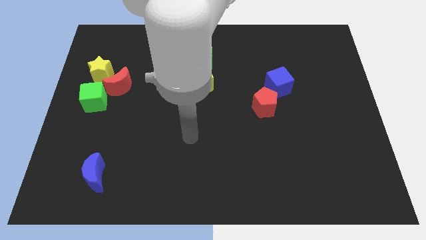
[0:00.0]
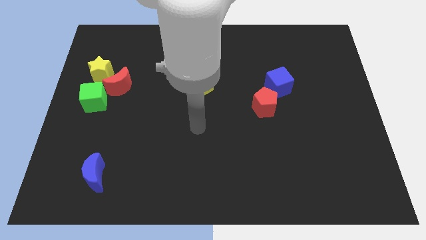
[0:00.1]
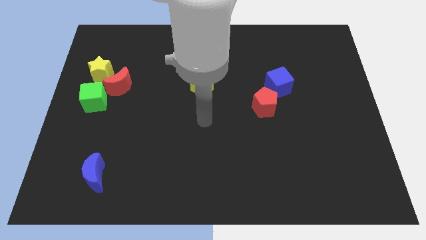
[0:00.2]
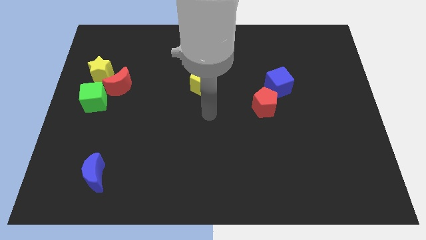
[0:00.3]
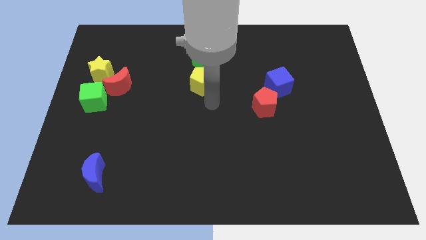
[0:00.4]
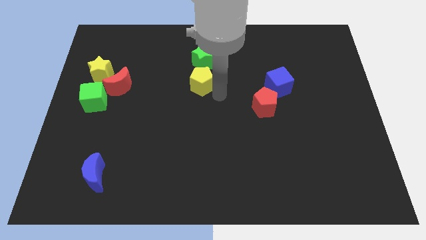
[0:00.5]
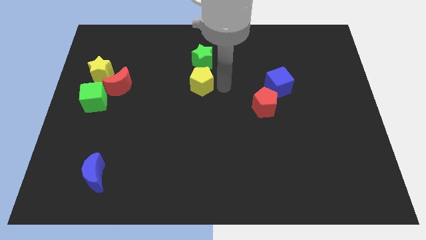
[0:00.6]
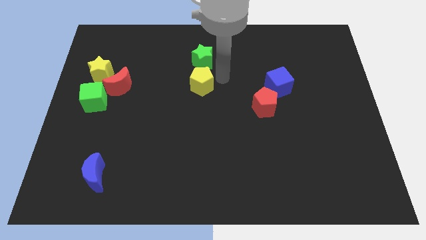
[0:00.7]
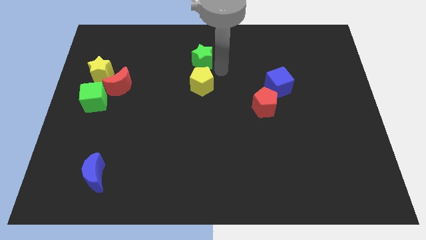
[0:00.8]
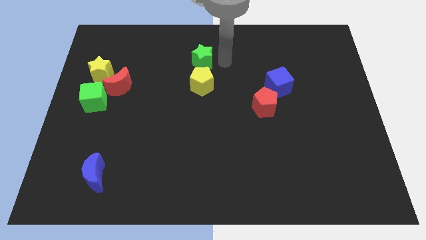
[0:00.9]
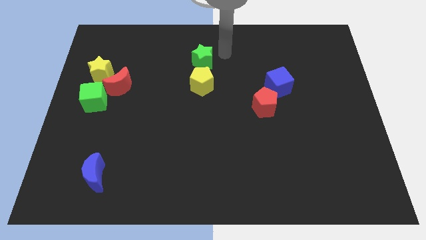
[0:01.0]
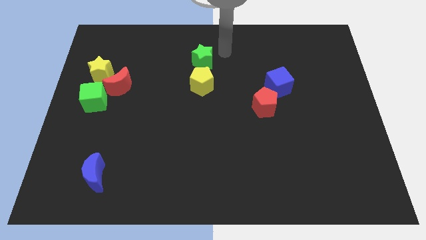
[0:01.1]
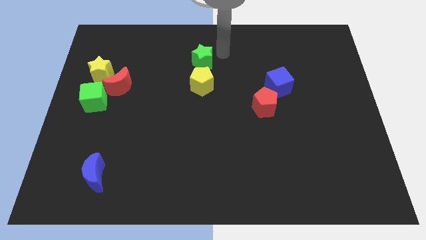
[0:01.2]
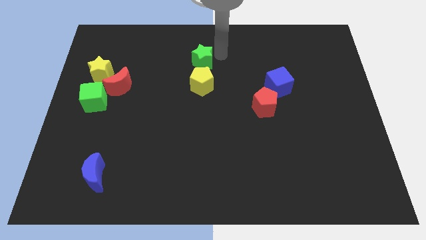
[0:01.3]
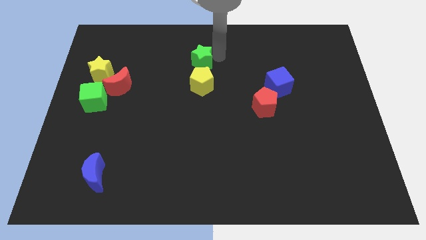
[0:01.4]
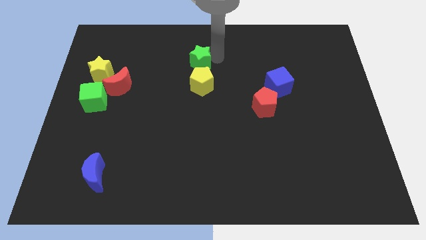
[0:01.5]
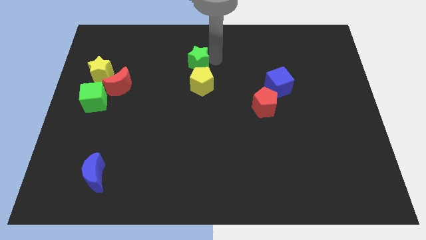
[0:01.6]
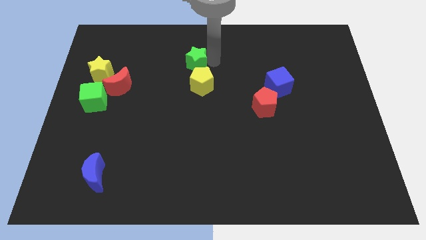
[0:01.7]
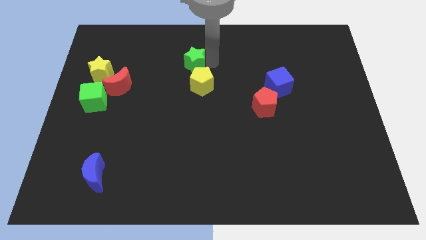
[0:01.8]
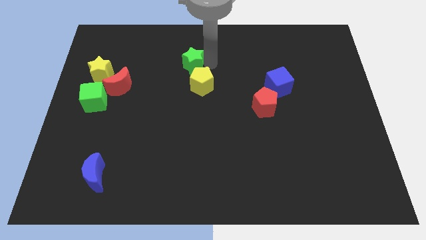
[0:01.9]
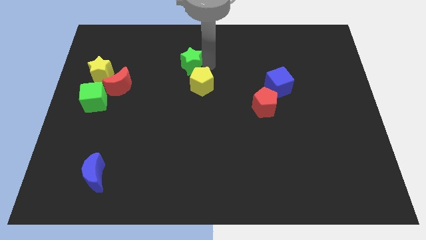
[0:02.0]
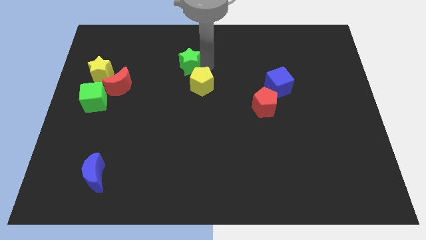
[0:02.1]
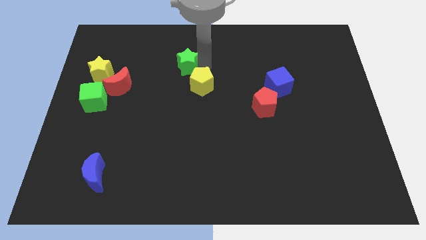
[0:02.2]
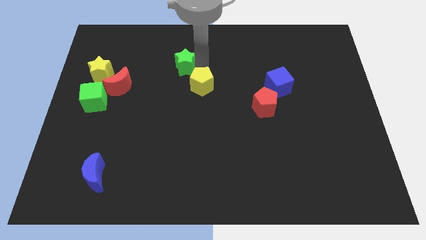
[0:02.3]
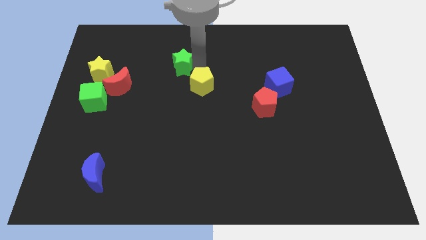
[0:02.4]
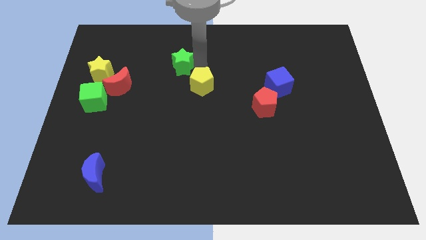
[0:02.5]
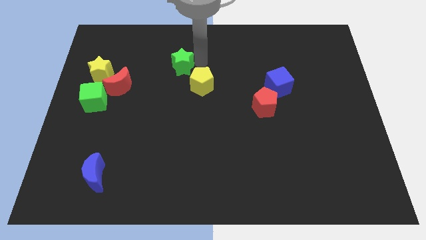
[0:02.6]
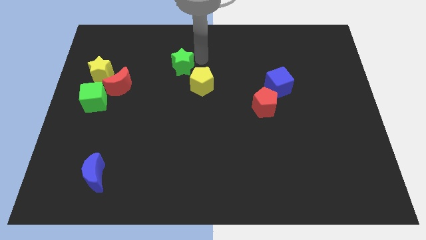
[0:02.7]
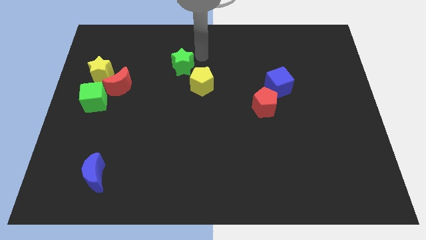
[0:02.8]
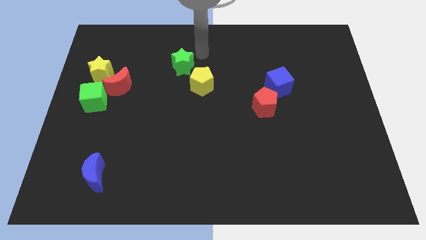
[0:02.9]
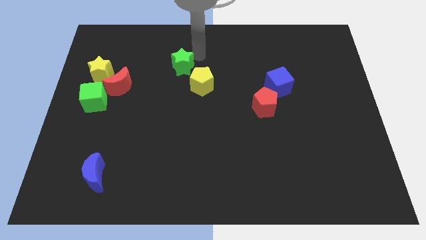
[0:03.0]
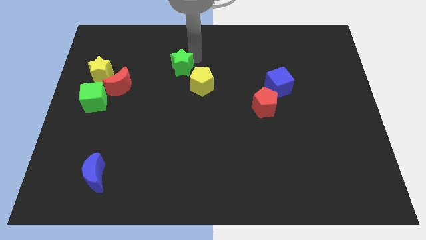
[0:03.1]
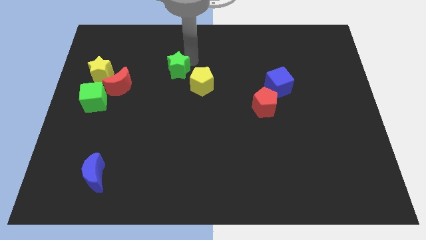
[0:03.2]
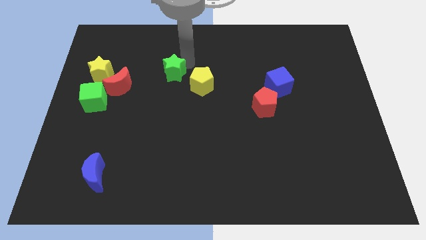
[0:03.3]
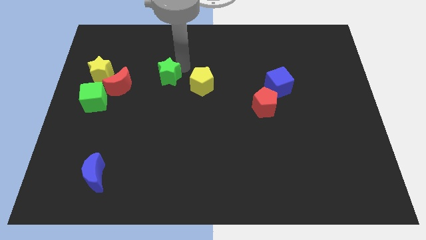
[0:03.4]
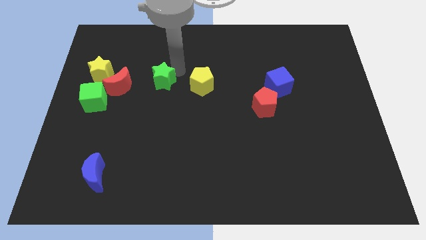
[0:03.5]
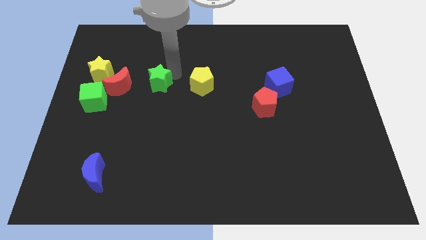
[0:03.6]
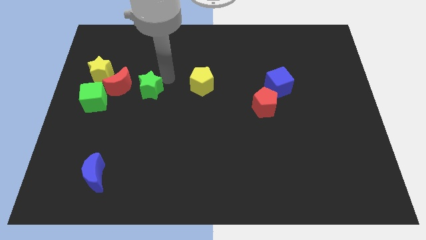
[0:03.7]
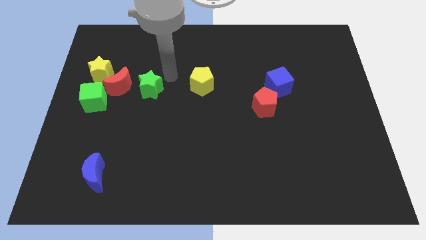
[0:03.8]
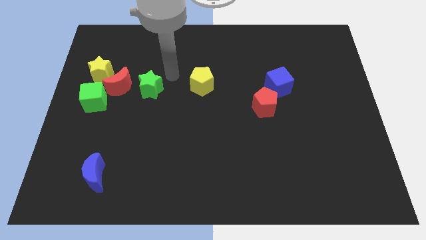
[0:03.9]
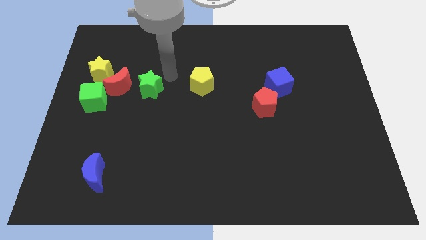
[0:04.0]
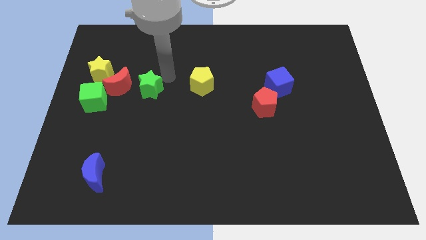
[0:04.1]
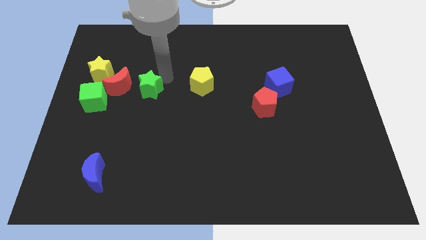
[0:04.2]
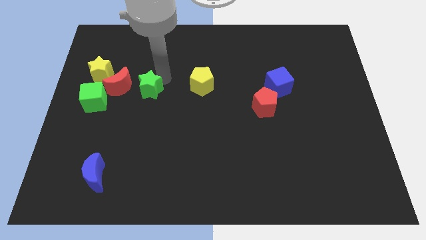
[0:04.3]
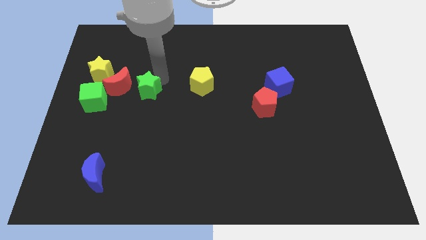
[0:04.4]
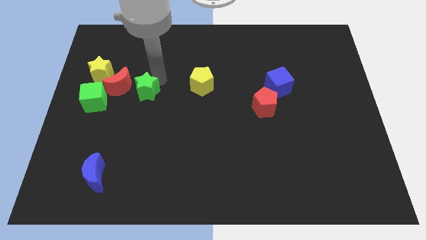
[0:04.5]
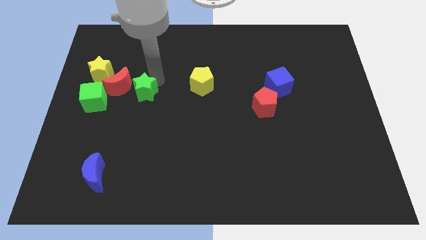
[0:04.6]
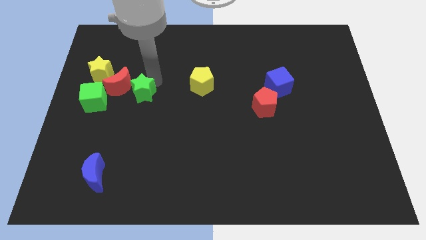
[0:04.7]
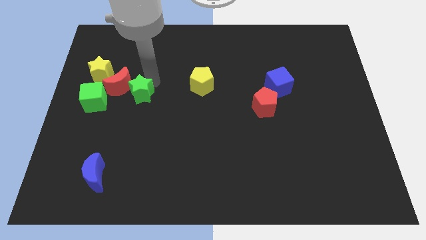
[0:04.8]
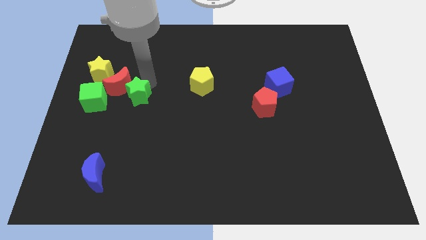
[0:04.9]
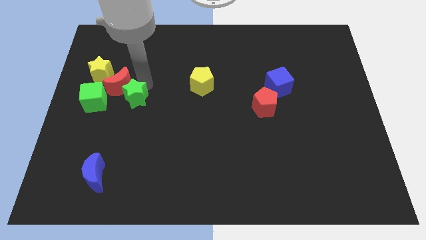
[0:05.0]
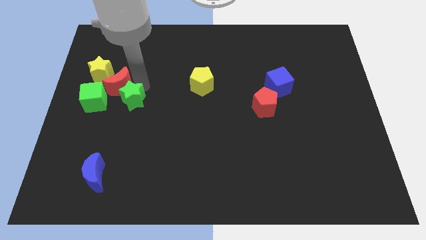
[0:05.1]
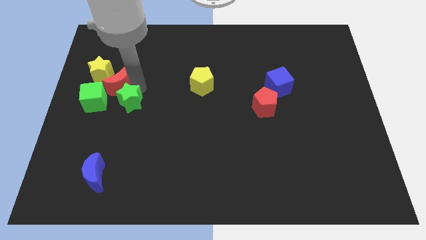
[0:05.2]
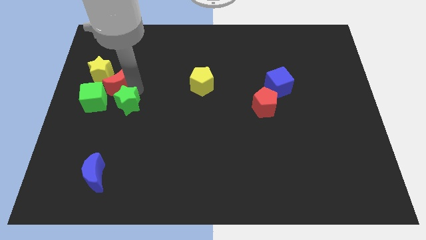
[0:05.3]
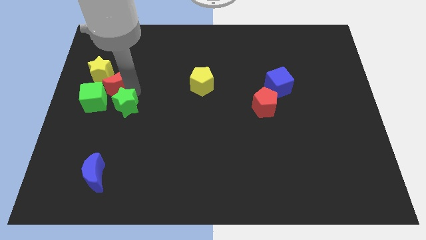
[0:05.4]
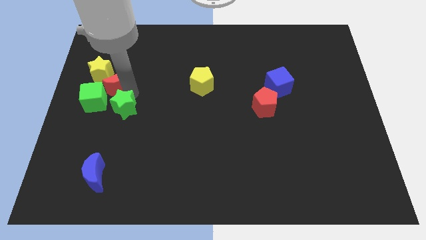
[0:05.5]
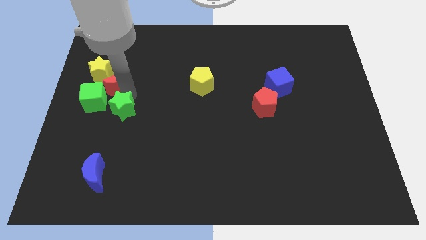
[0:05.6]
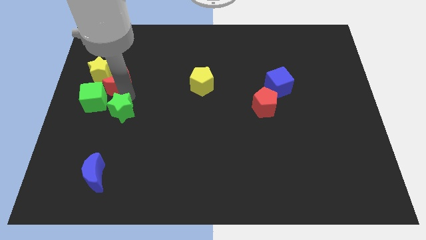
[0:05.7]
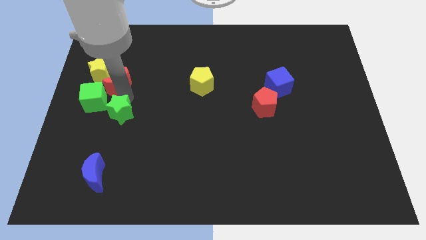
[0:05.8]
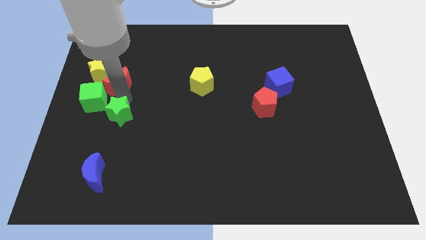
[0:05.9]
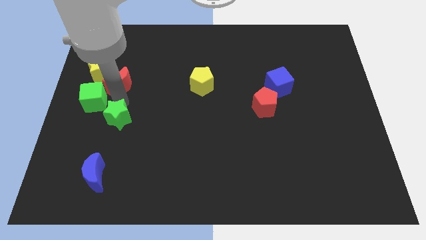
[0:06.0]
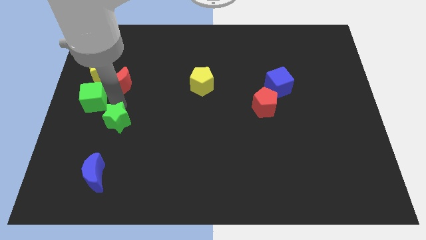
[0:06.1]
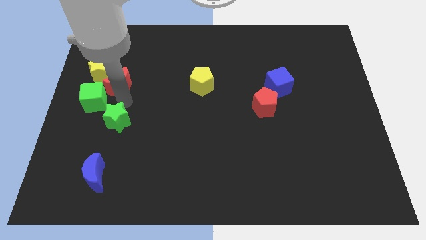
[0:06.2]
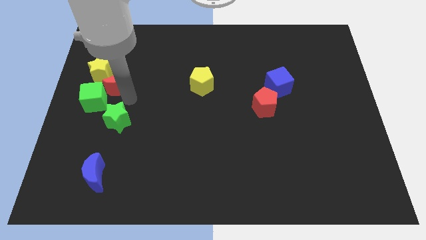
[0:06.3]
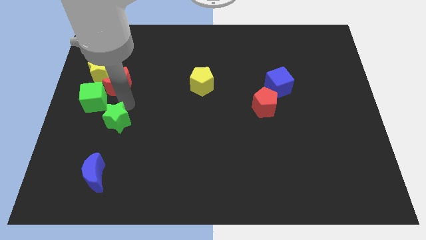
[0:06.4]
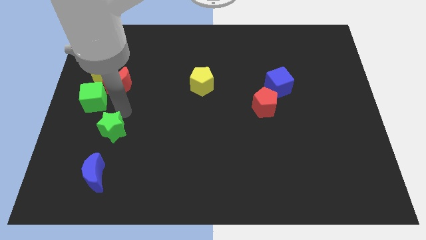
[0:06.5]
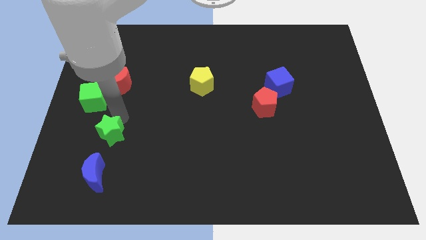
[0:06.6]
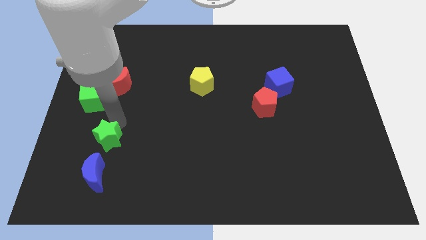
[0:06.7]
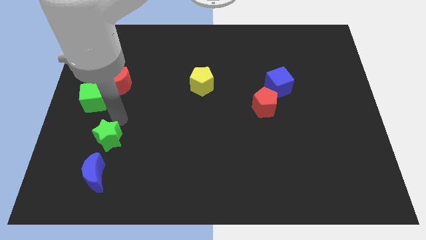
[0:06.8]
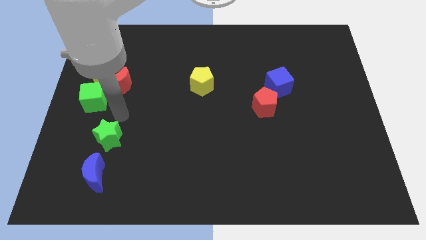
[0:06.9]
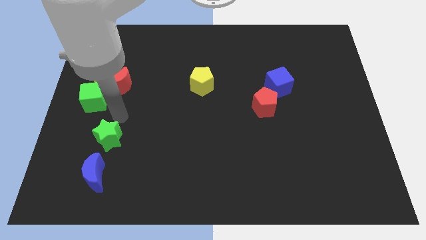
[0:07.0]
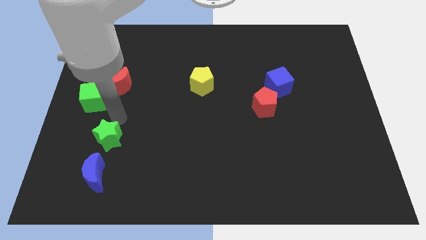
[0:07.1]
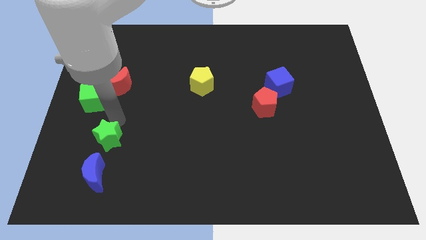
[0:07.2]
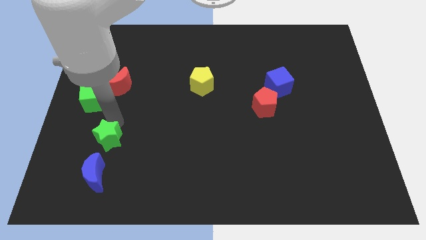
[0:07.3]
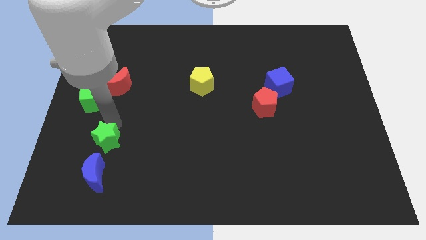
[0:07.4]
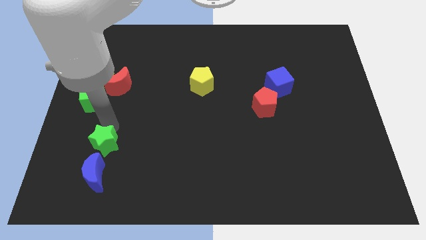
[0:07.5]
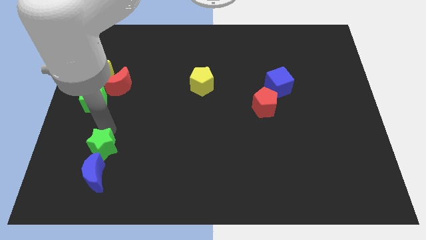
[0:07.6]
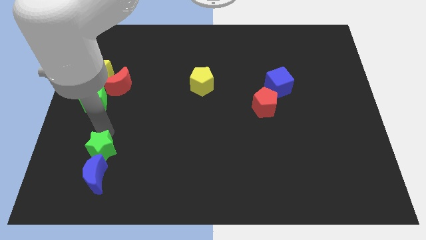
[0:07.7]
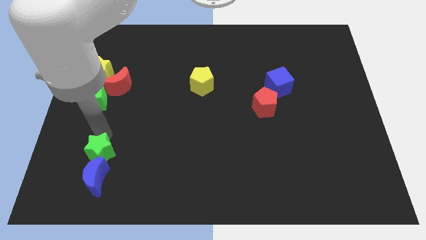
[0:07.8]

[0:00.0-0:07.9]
move the green star to the blue moon
